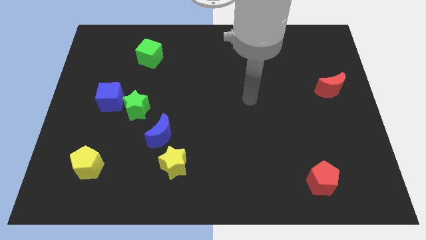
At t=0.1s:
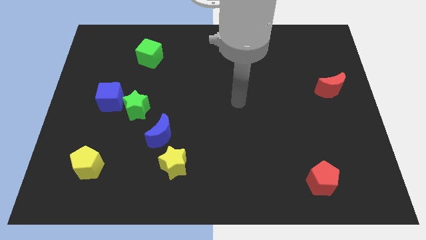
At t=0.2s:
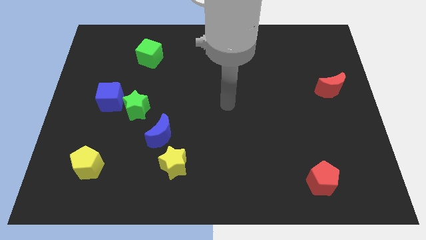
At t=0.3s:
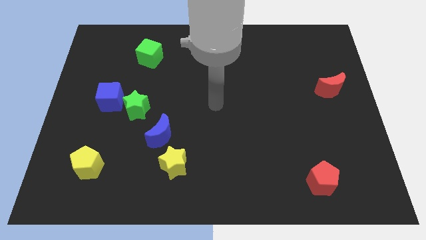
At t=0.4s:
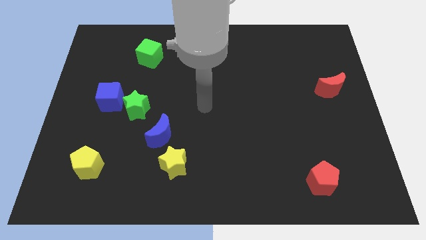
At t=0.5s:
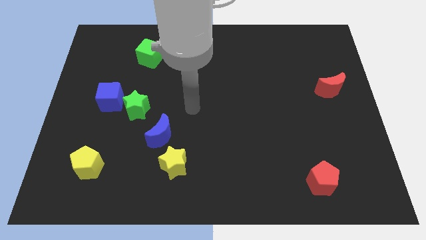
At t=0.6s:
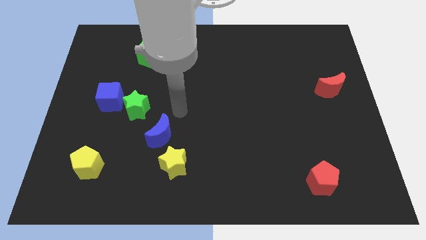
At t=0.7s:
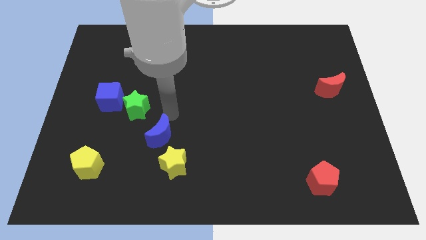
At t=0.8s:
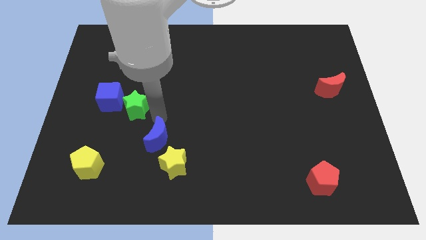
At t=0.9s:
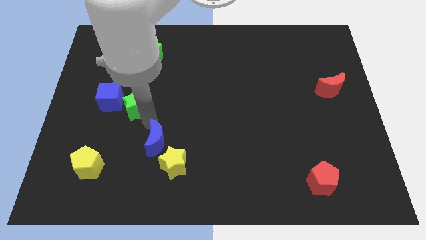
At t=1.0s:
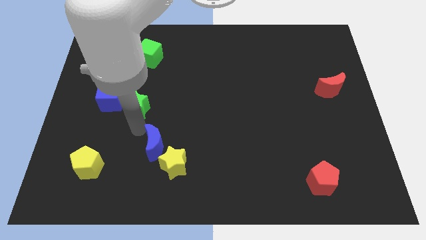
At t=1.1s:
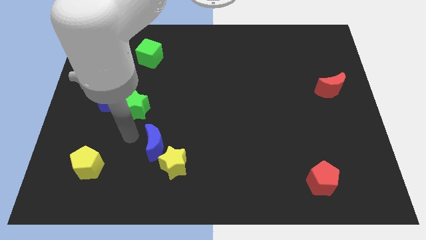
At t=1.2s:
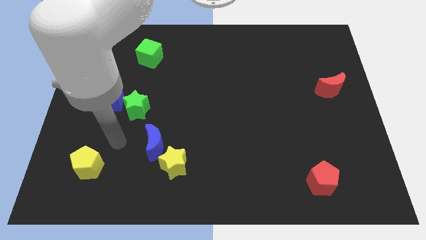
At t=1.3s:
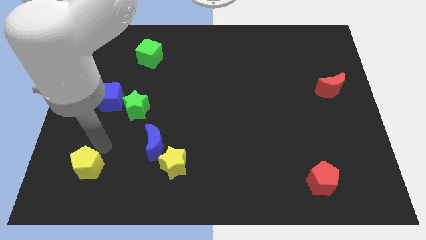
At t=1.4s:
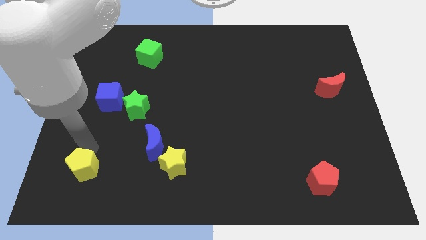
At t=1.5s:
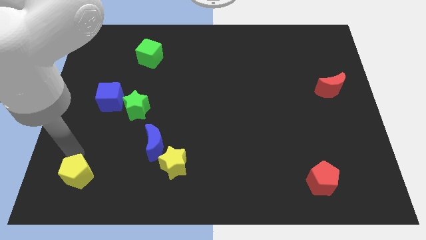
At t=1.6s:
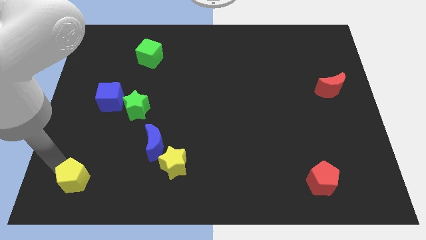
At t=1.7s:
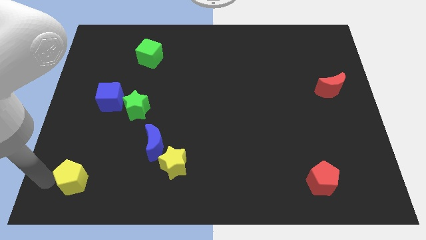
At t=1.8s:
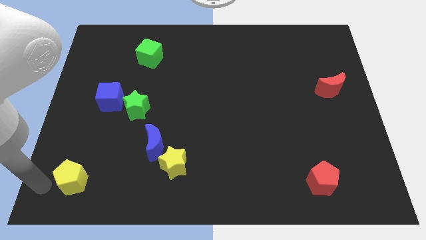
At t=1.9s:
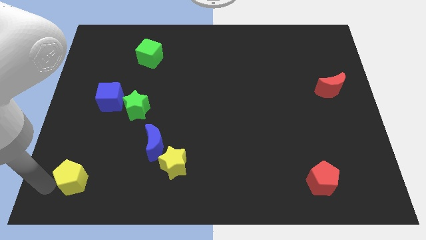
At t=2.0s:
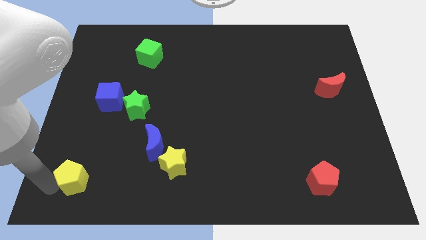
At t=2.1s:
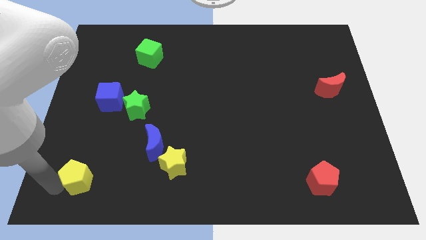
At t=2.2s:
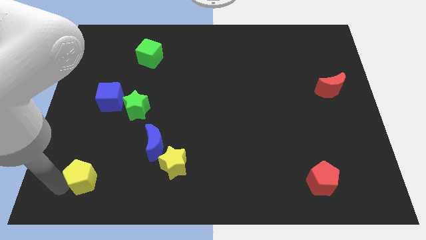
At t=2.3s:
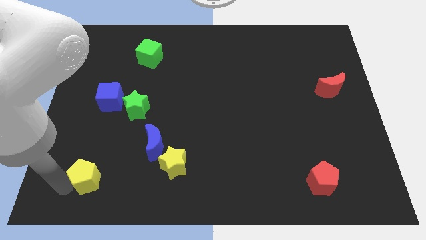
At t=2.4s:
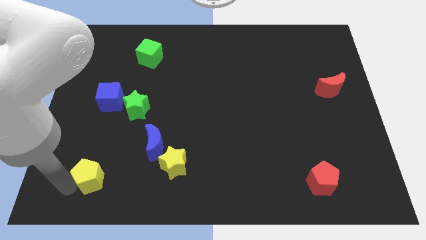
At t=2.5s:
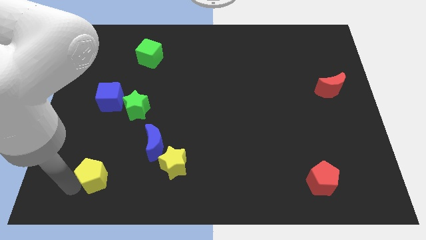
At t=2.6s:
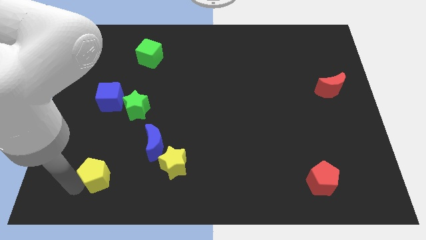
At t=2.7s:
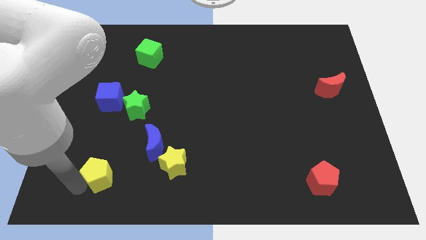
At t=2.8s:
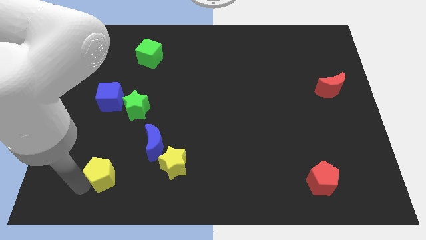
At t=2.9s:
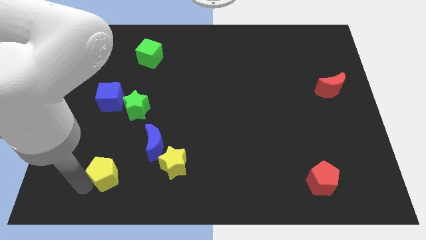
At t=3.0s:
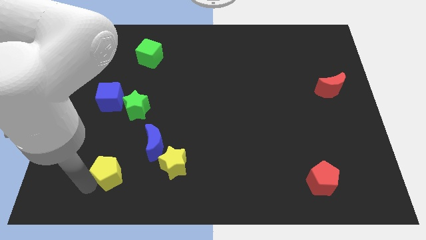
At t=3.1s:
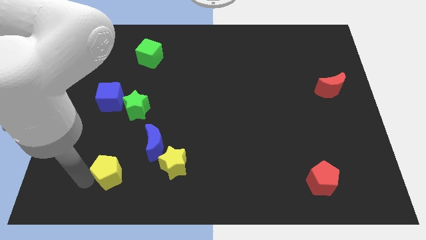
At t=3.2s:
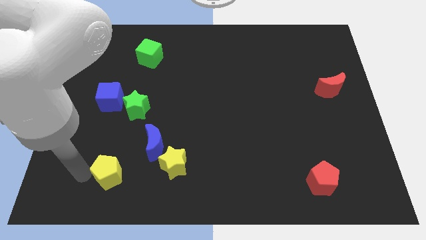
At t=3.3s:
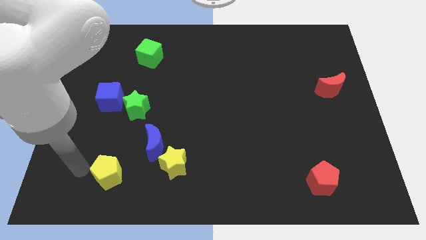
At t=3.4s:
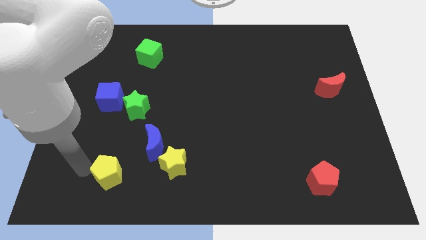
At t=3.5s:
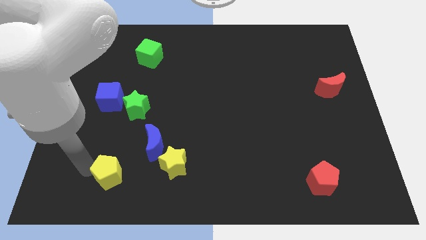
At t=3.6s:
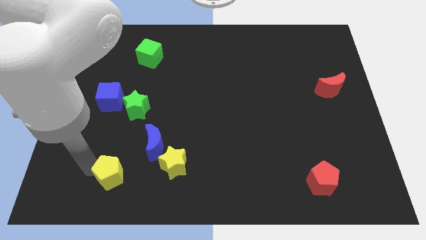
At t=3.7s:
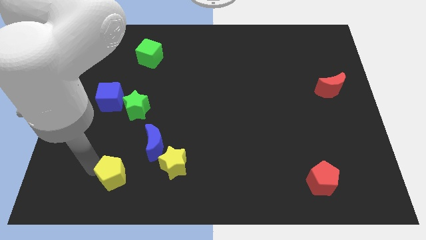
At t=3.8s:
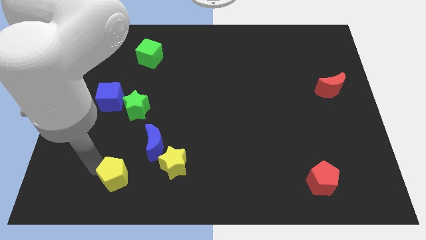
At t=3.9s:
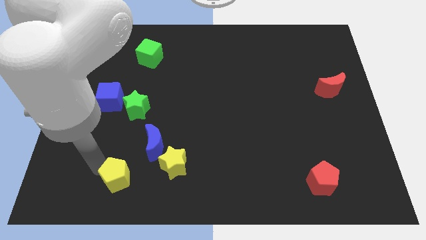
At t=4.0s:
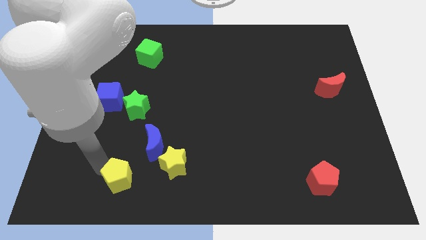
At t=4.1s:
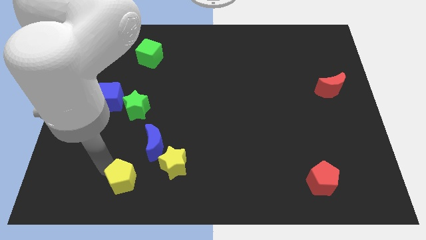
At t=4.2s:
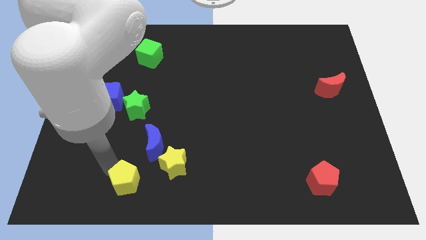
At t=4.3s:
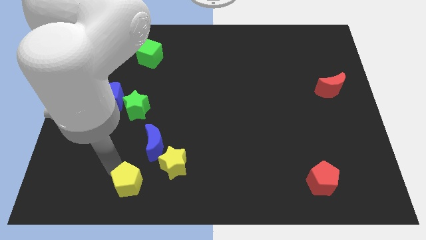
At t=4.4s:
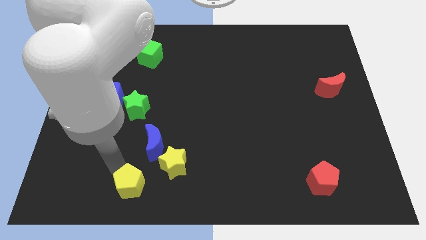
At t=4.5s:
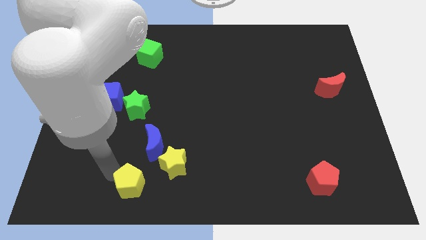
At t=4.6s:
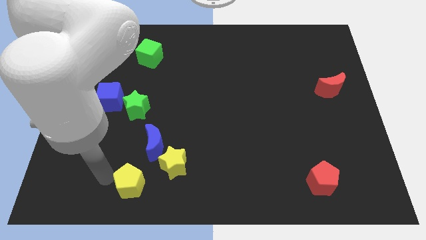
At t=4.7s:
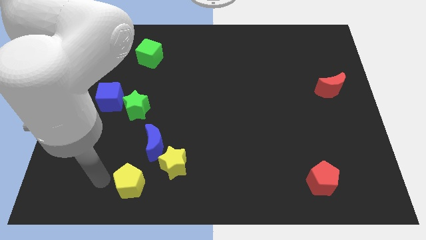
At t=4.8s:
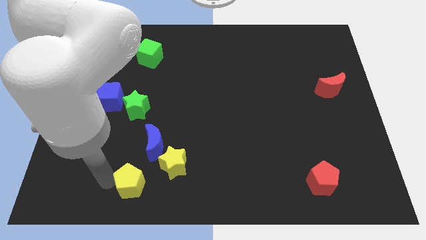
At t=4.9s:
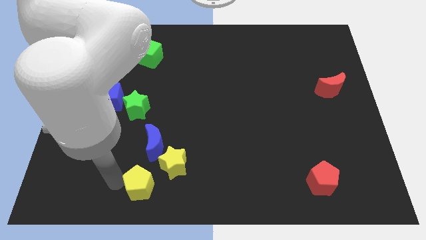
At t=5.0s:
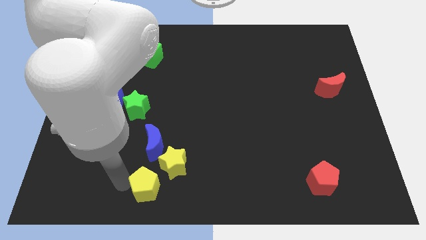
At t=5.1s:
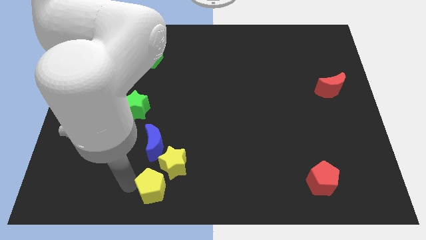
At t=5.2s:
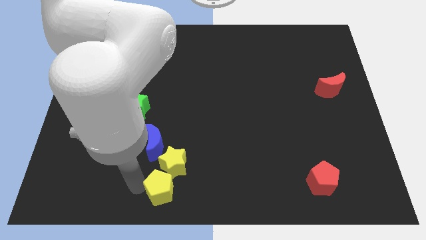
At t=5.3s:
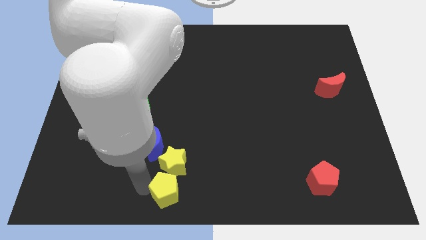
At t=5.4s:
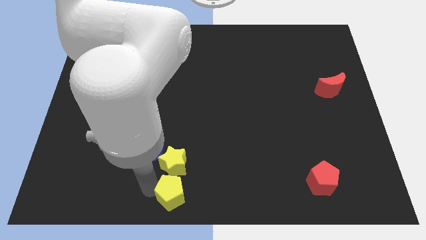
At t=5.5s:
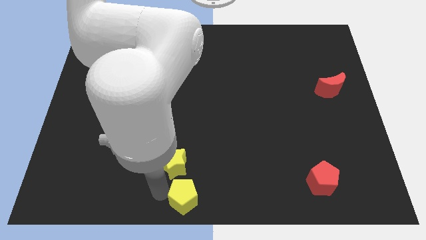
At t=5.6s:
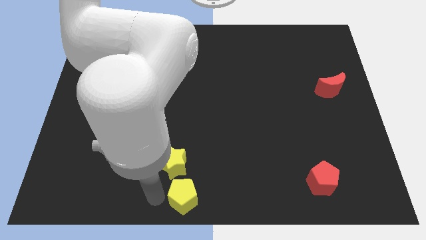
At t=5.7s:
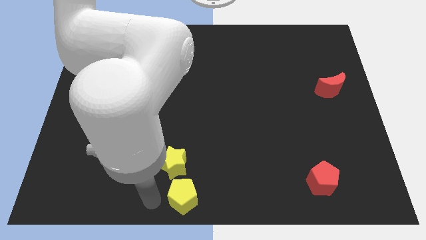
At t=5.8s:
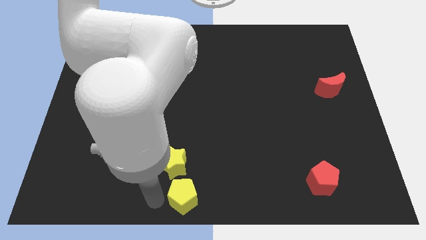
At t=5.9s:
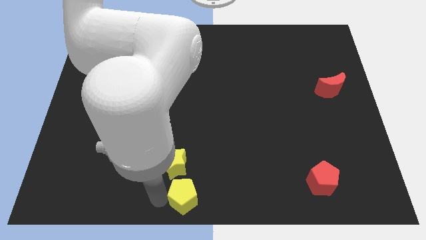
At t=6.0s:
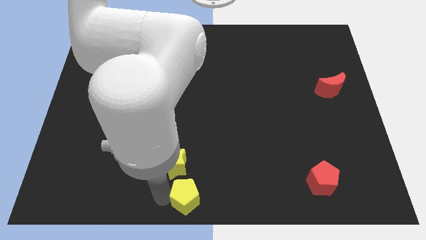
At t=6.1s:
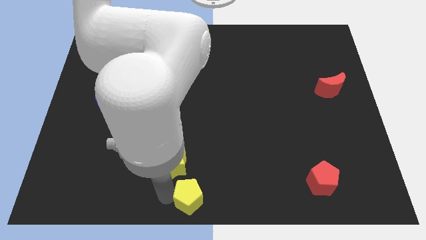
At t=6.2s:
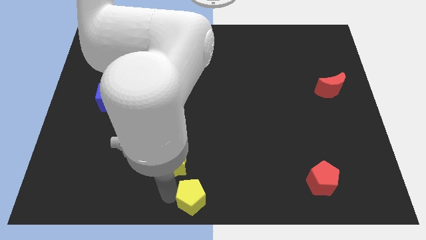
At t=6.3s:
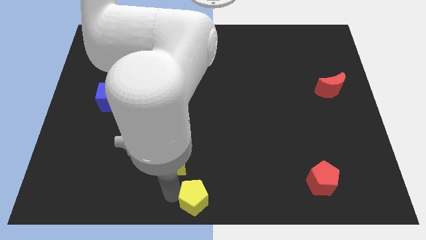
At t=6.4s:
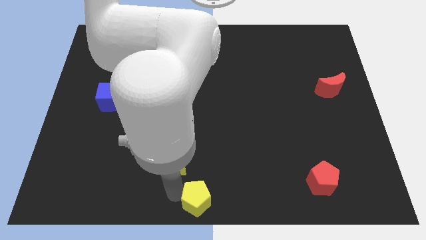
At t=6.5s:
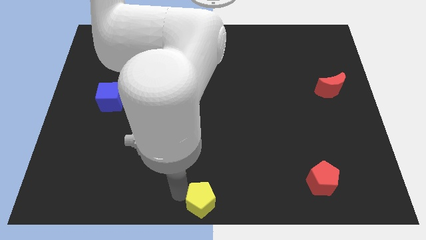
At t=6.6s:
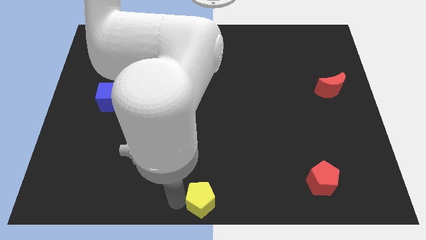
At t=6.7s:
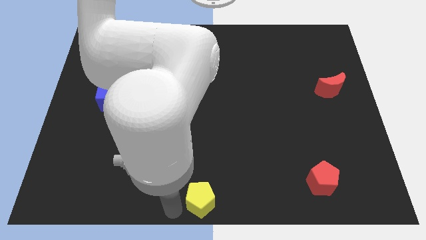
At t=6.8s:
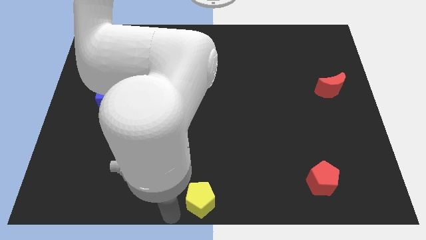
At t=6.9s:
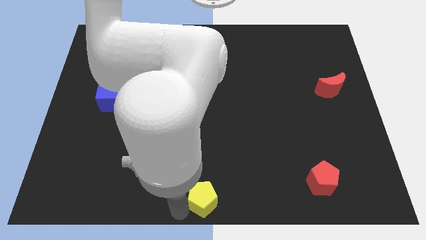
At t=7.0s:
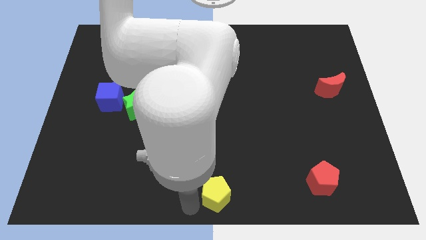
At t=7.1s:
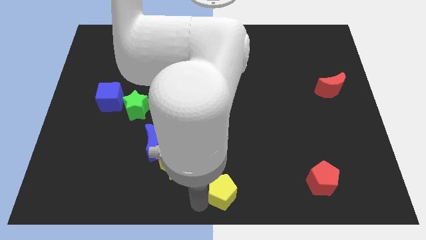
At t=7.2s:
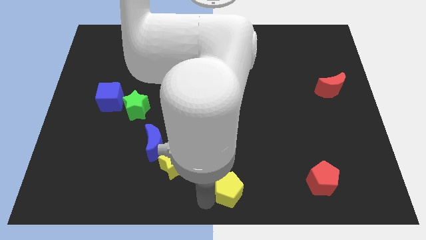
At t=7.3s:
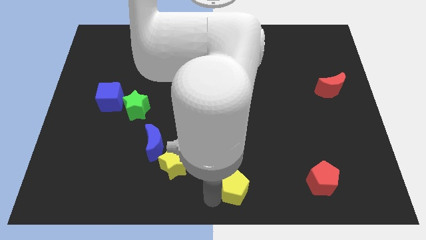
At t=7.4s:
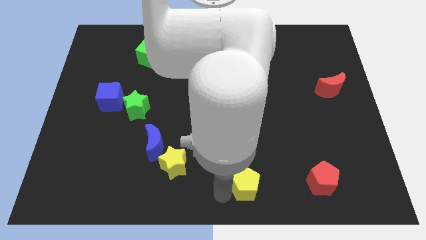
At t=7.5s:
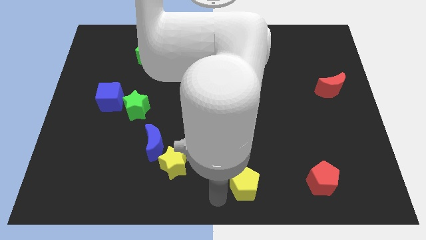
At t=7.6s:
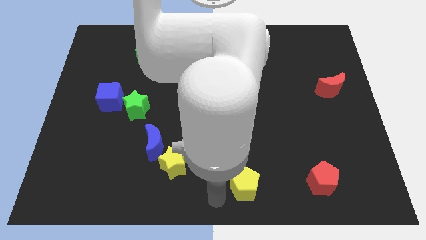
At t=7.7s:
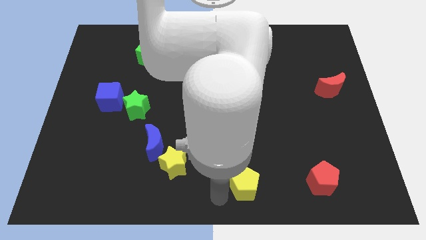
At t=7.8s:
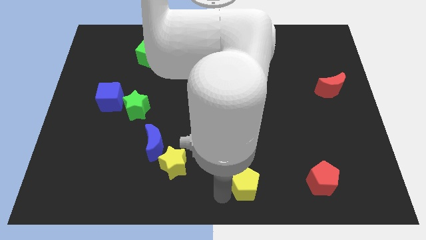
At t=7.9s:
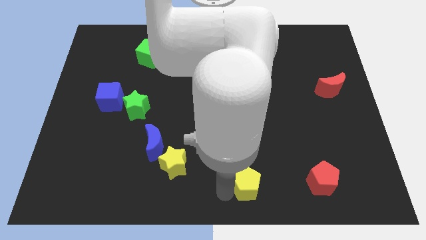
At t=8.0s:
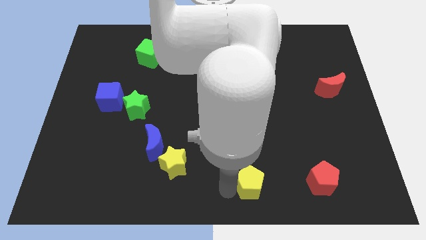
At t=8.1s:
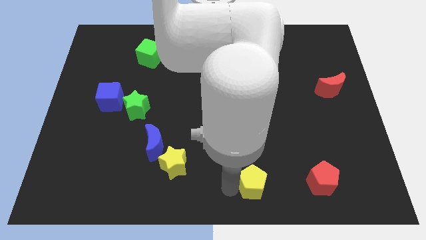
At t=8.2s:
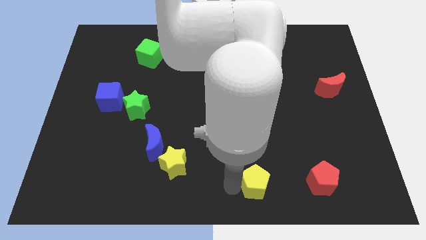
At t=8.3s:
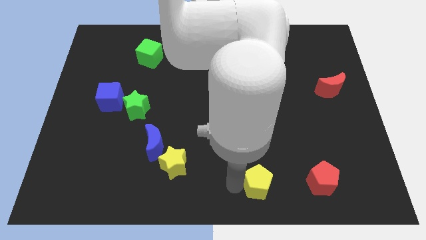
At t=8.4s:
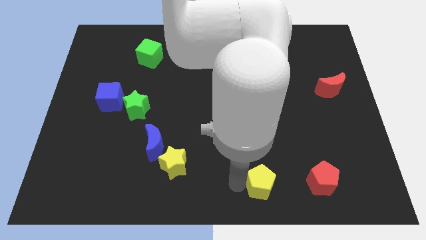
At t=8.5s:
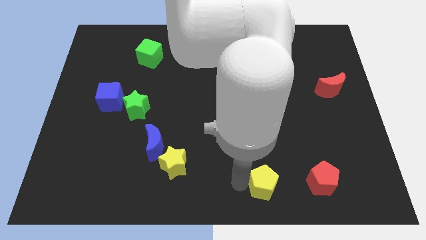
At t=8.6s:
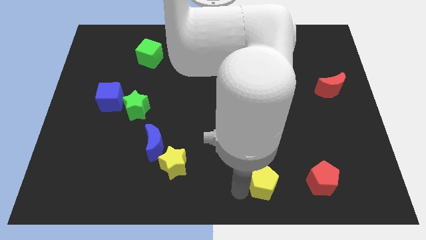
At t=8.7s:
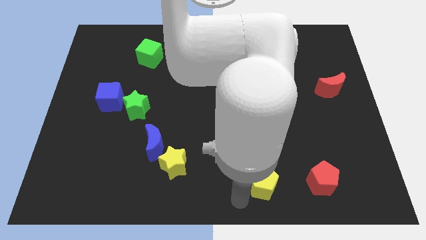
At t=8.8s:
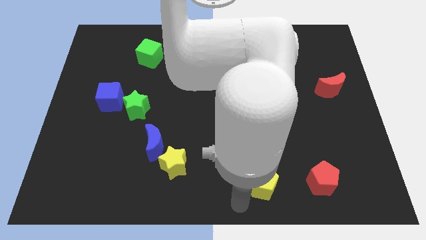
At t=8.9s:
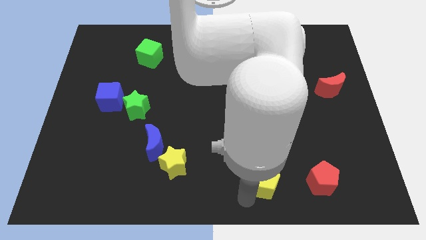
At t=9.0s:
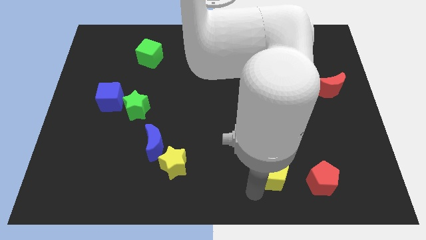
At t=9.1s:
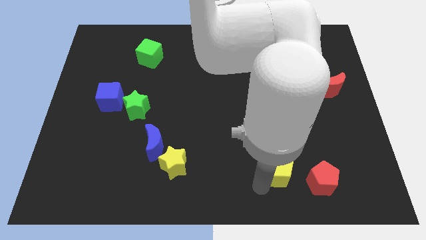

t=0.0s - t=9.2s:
put the yellow pentagon to the top left side of the red pentagon
